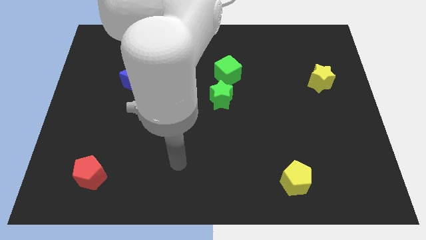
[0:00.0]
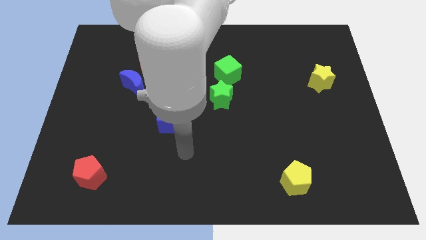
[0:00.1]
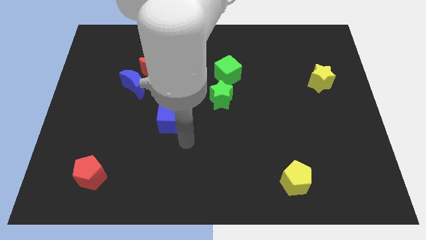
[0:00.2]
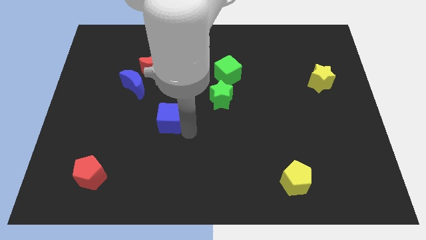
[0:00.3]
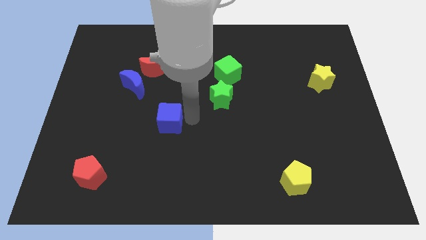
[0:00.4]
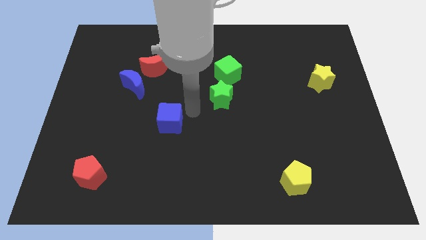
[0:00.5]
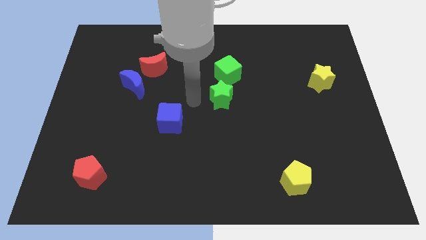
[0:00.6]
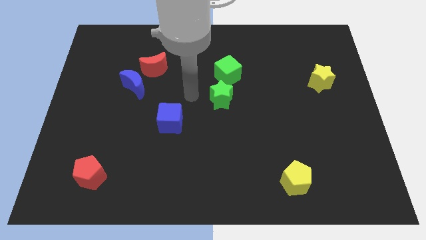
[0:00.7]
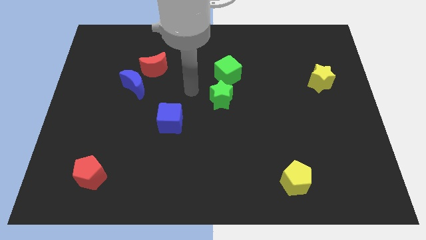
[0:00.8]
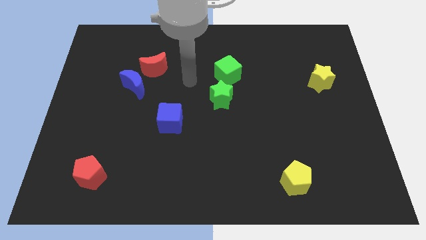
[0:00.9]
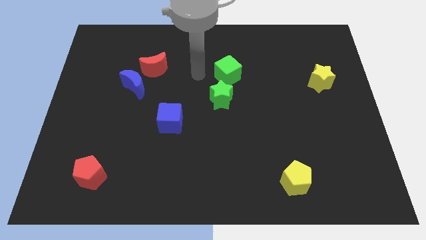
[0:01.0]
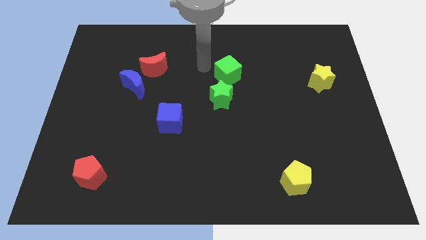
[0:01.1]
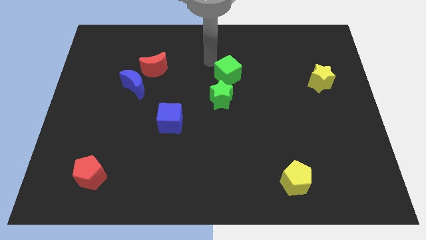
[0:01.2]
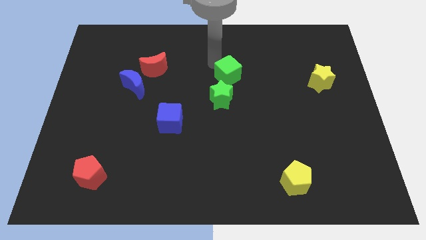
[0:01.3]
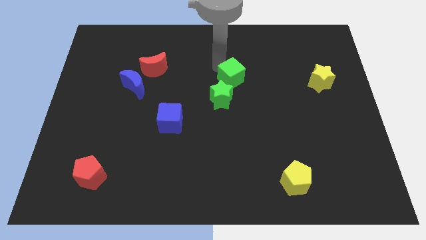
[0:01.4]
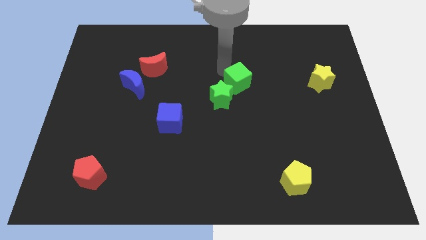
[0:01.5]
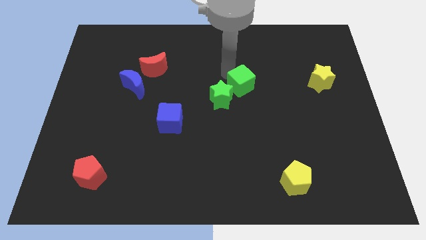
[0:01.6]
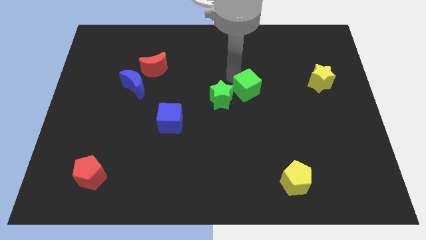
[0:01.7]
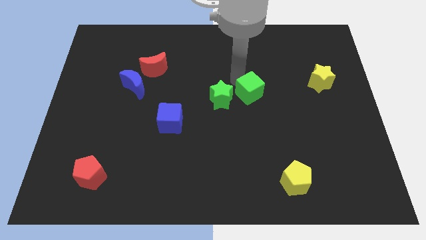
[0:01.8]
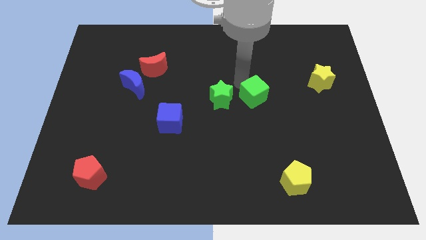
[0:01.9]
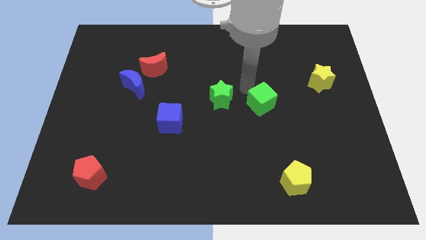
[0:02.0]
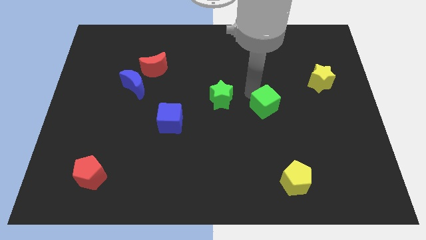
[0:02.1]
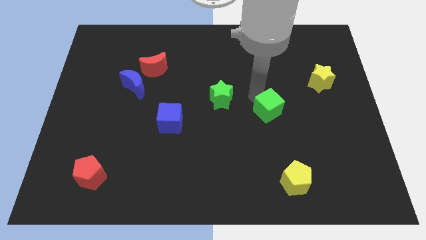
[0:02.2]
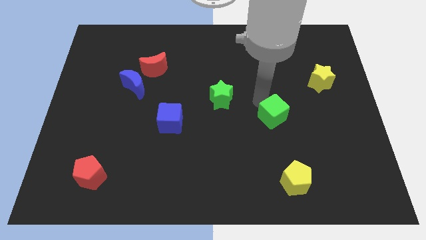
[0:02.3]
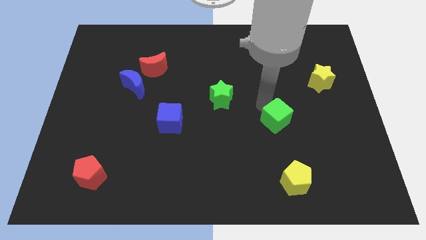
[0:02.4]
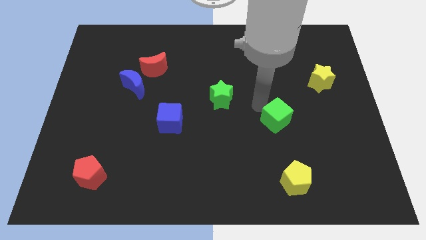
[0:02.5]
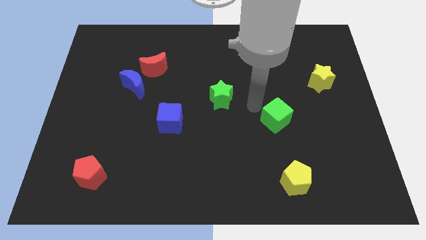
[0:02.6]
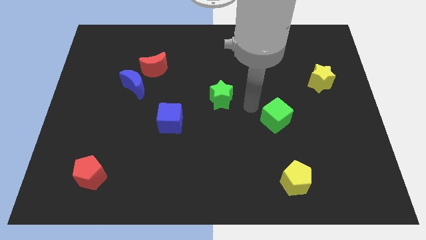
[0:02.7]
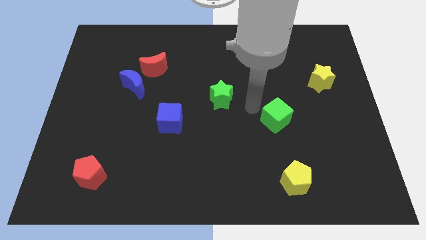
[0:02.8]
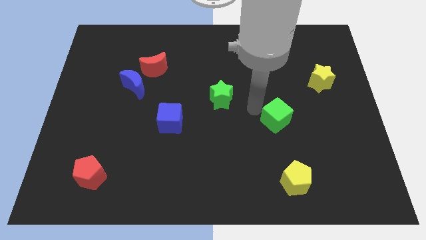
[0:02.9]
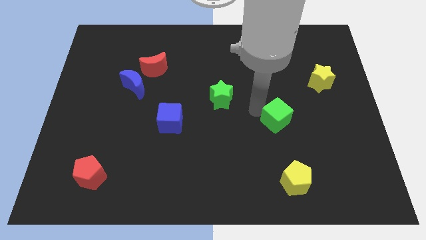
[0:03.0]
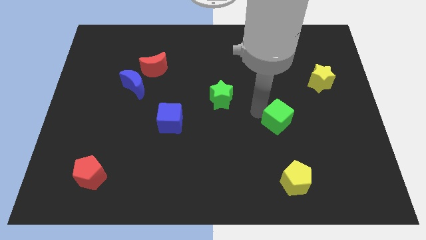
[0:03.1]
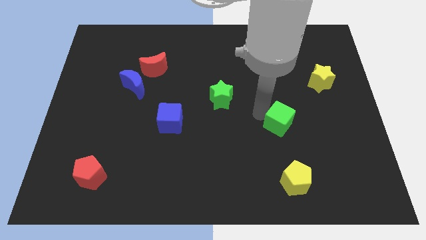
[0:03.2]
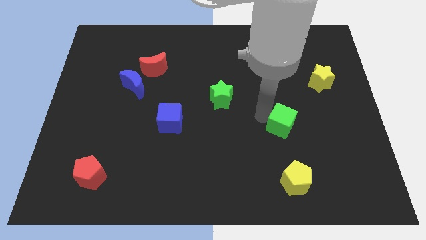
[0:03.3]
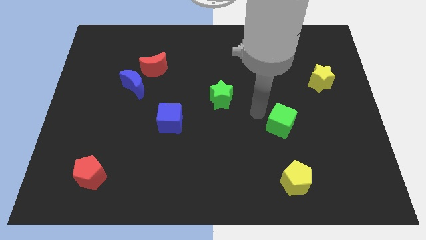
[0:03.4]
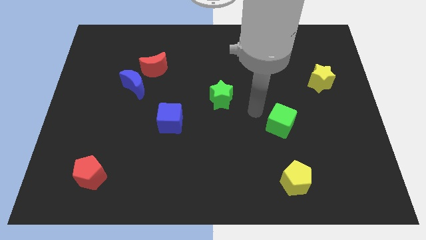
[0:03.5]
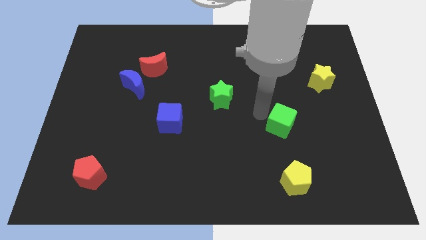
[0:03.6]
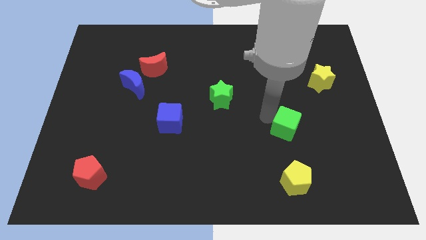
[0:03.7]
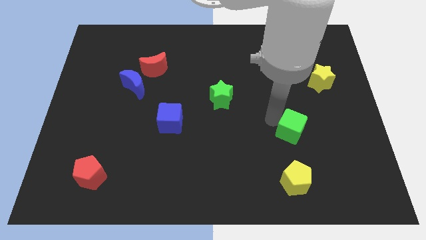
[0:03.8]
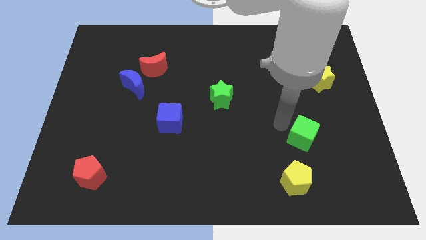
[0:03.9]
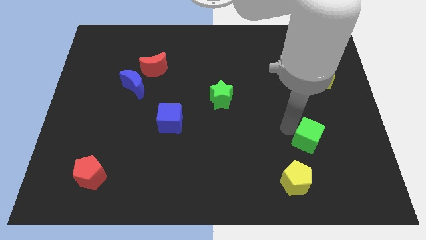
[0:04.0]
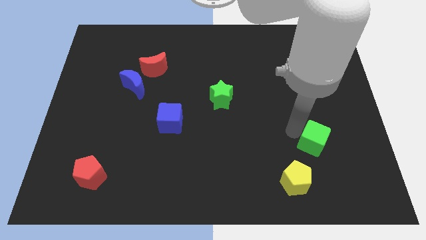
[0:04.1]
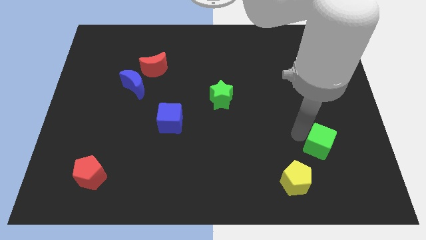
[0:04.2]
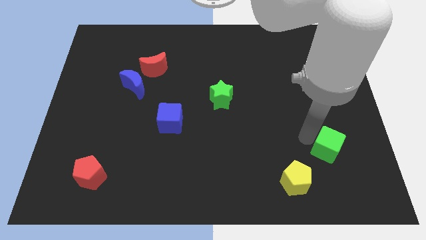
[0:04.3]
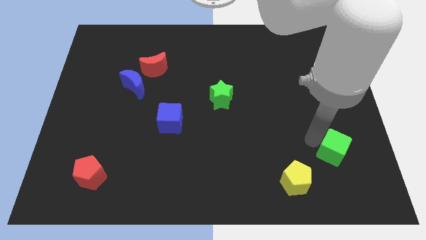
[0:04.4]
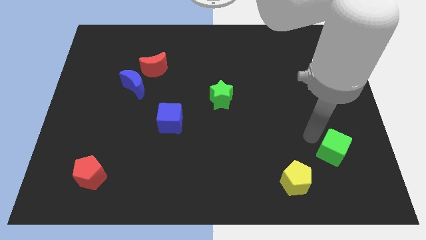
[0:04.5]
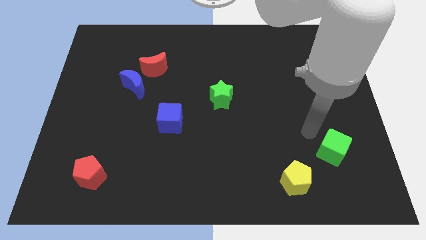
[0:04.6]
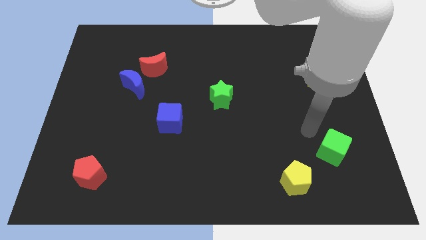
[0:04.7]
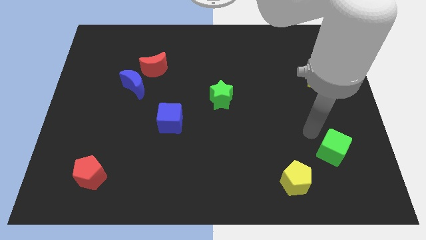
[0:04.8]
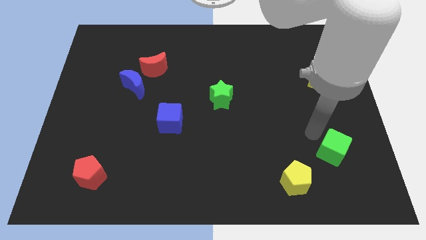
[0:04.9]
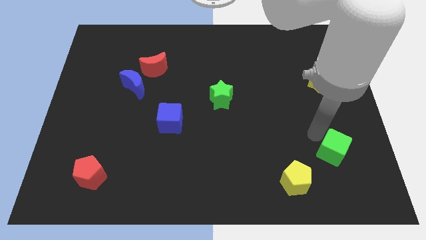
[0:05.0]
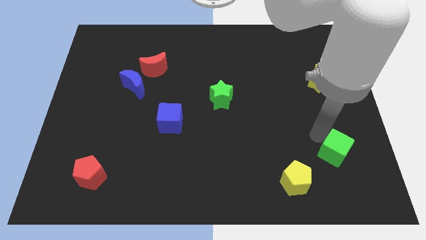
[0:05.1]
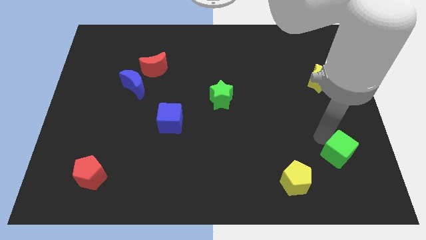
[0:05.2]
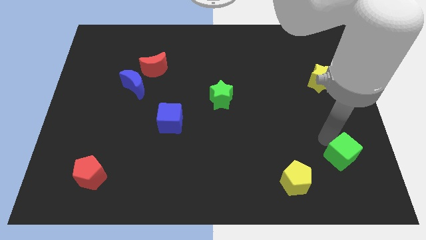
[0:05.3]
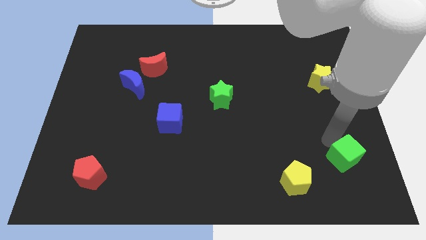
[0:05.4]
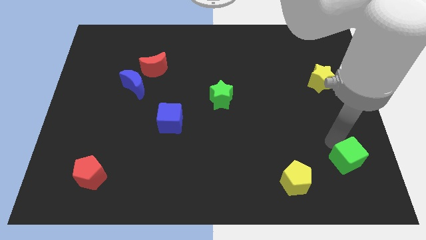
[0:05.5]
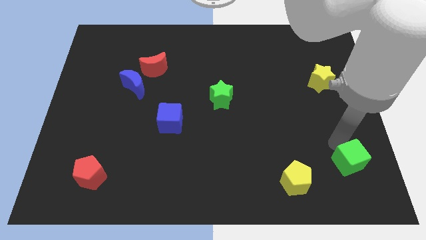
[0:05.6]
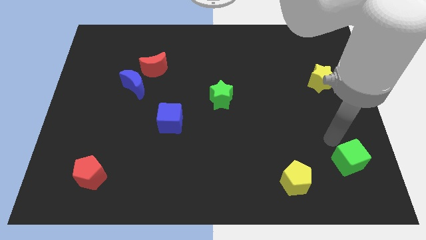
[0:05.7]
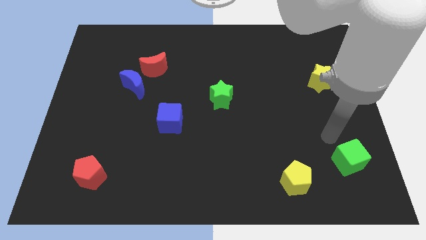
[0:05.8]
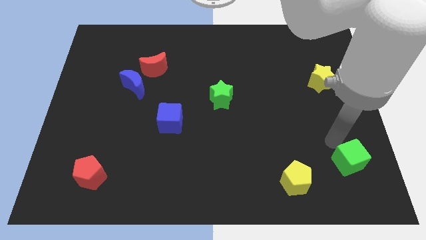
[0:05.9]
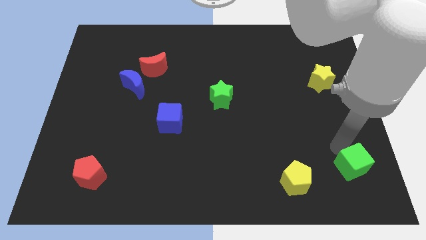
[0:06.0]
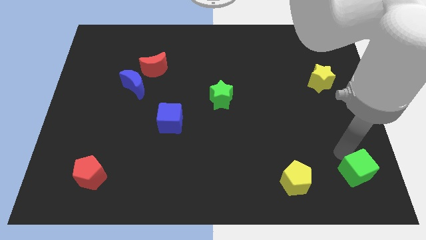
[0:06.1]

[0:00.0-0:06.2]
slide the green cube to the lower right corner

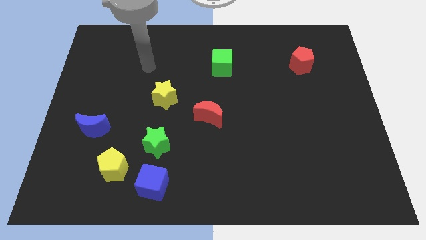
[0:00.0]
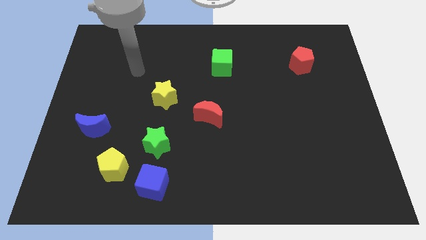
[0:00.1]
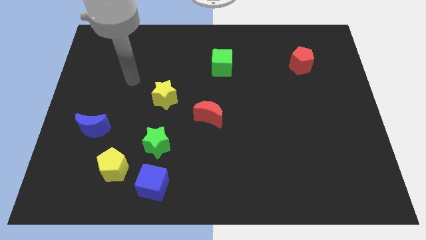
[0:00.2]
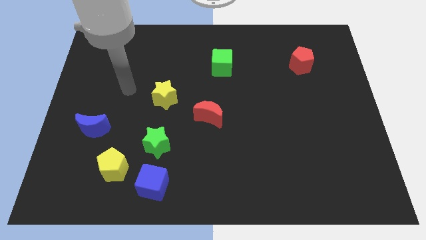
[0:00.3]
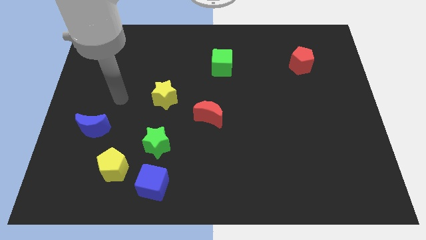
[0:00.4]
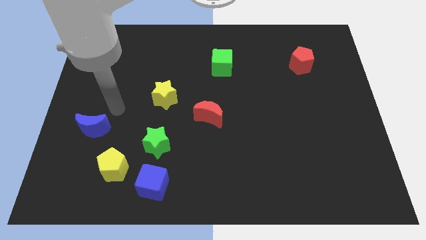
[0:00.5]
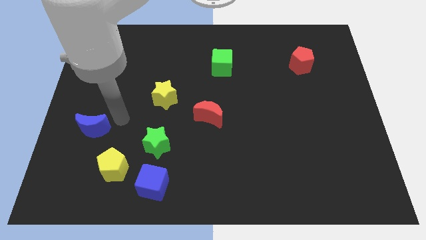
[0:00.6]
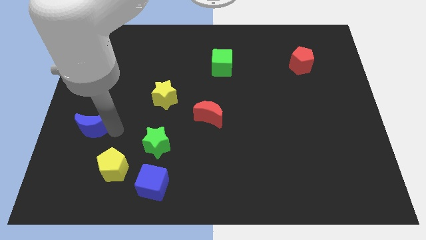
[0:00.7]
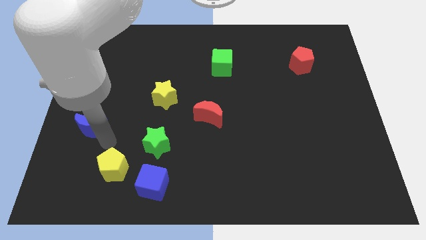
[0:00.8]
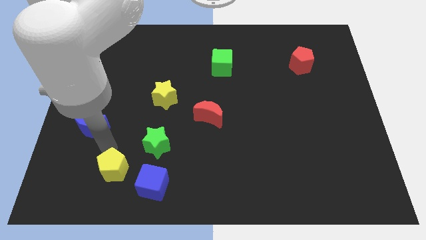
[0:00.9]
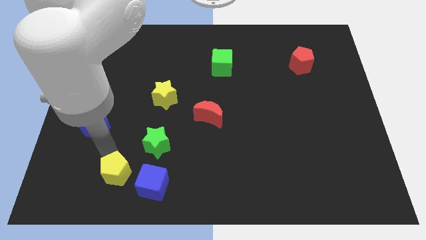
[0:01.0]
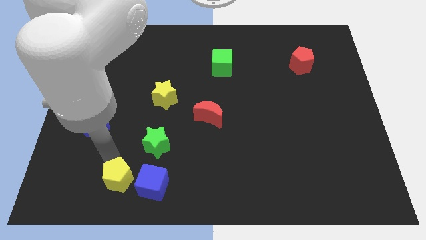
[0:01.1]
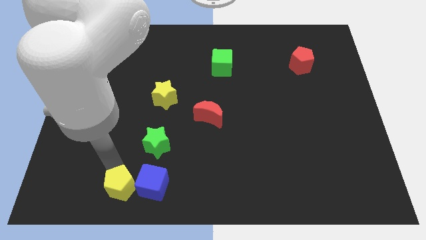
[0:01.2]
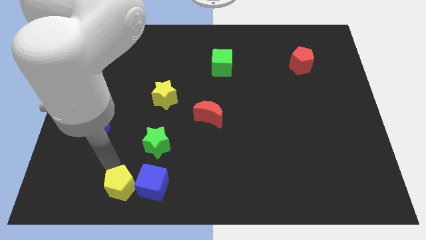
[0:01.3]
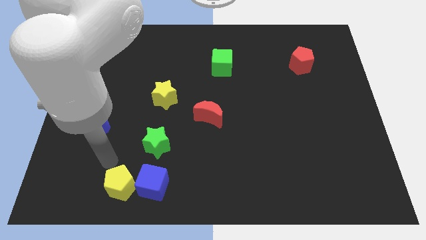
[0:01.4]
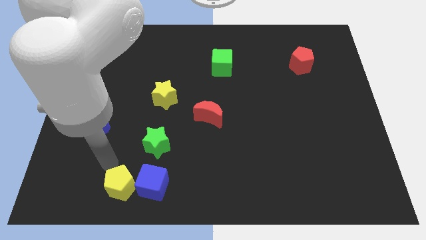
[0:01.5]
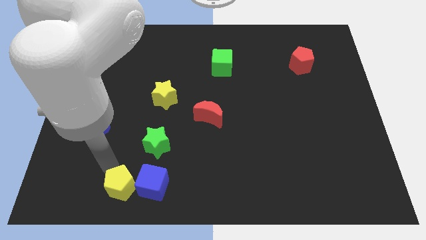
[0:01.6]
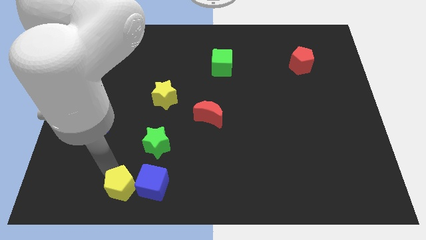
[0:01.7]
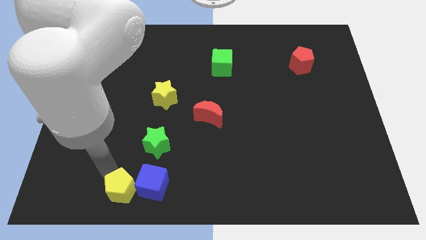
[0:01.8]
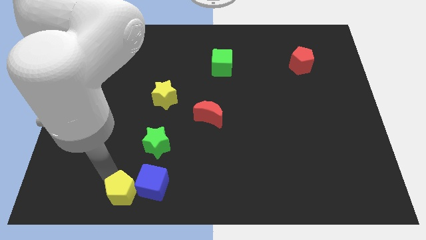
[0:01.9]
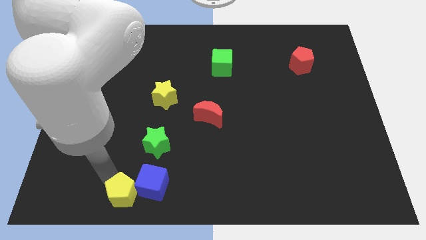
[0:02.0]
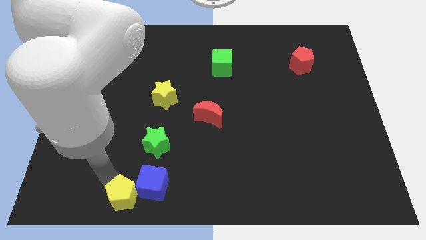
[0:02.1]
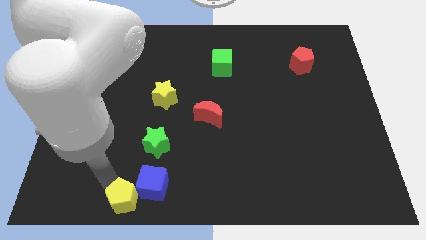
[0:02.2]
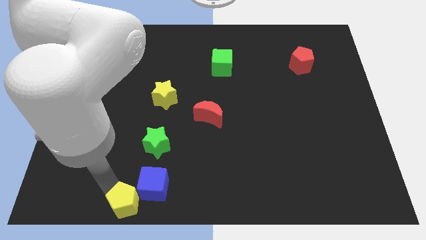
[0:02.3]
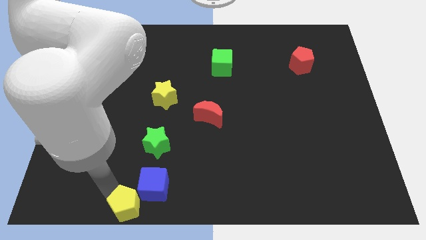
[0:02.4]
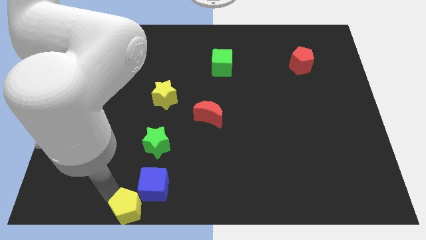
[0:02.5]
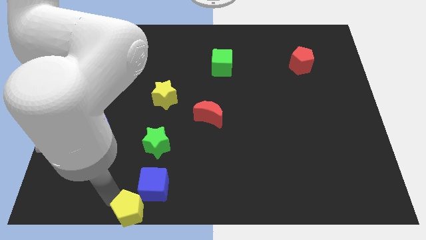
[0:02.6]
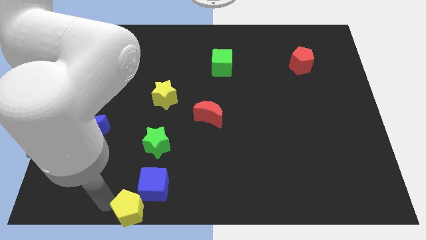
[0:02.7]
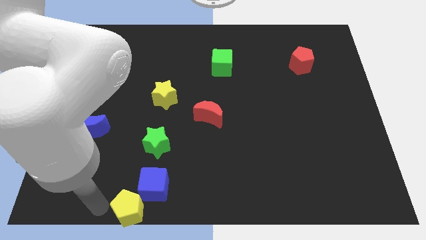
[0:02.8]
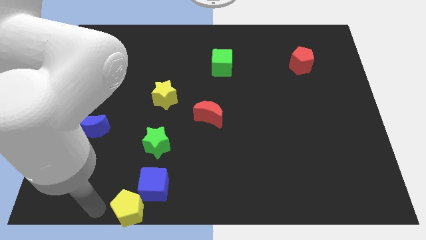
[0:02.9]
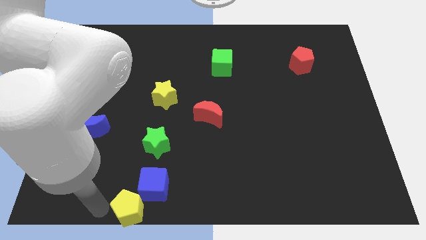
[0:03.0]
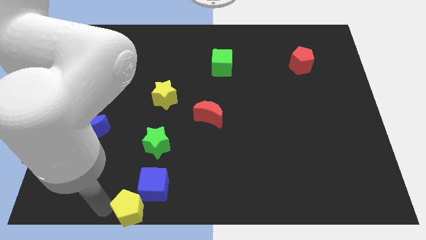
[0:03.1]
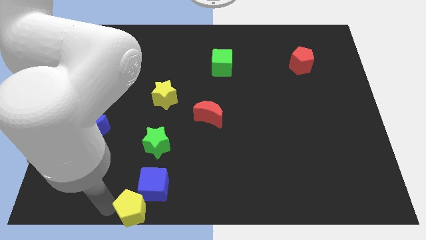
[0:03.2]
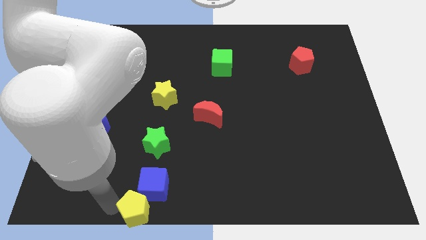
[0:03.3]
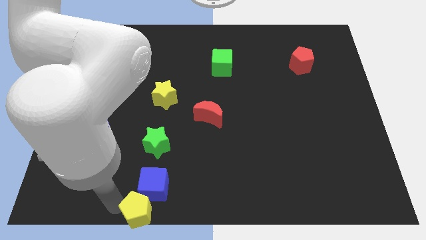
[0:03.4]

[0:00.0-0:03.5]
slide the yellow pentagon to the bottom
